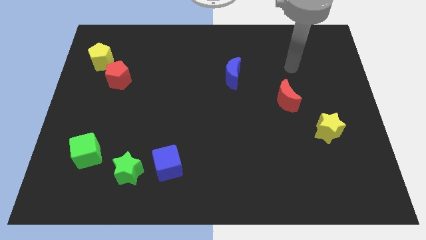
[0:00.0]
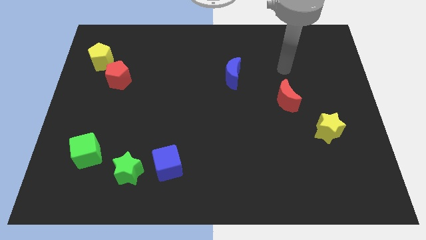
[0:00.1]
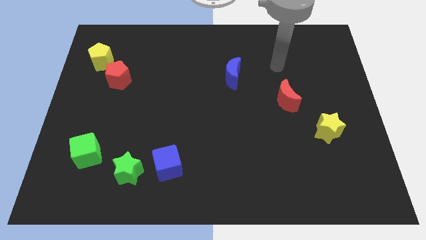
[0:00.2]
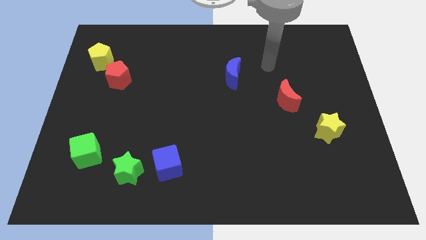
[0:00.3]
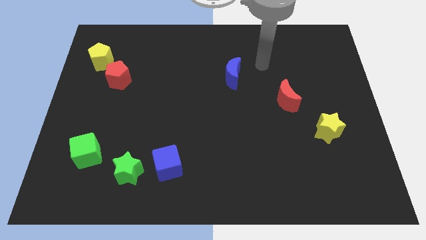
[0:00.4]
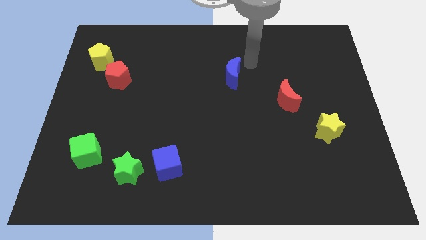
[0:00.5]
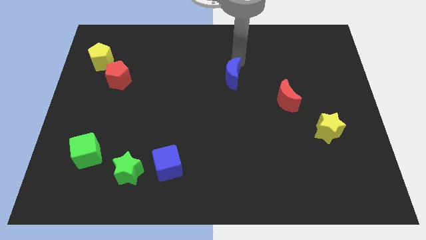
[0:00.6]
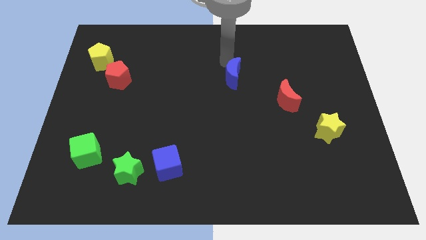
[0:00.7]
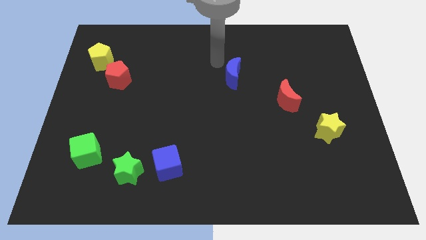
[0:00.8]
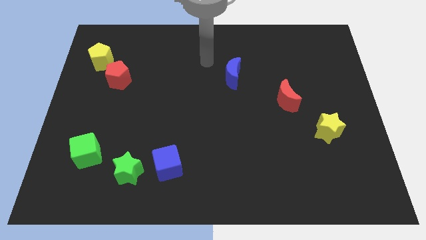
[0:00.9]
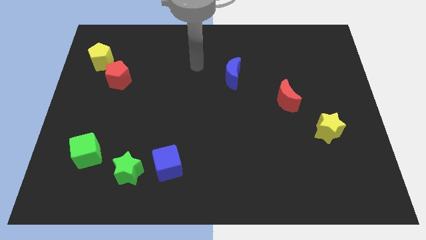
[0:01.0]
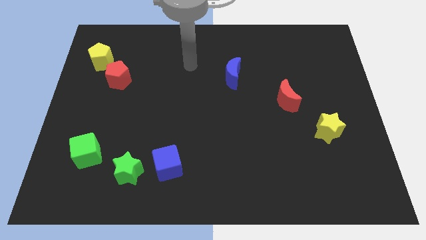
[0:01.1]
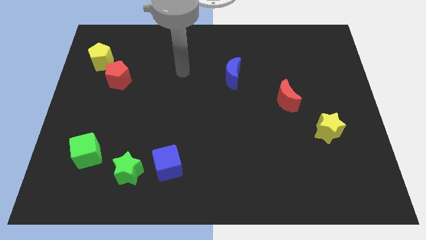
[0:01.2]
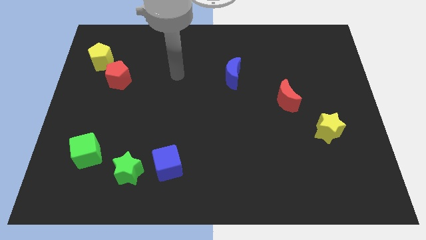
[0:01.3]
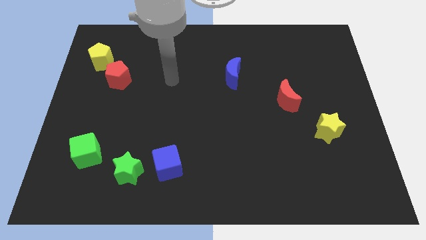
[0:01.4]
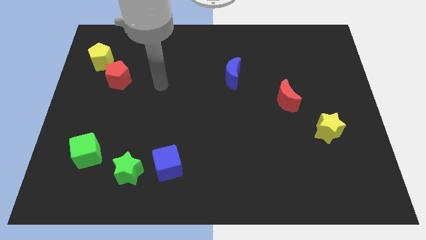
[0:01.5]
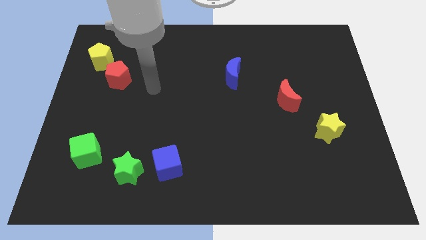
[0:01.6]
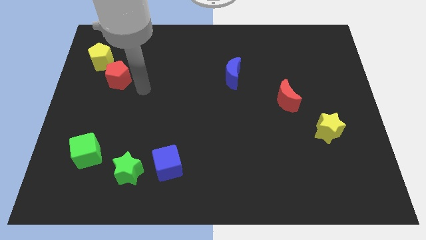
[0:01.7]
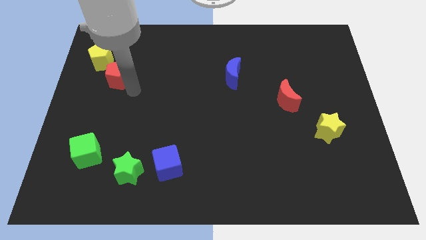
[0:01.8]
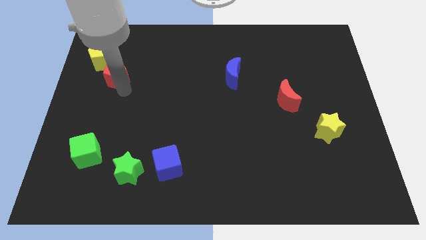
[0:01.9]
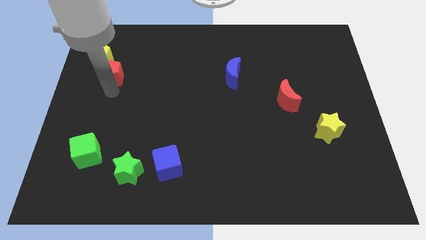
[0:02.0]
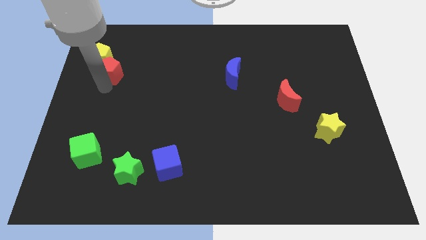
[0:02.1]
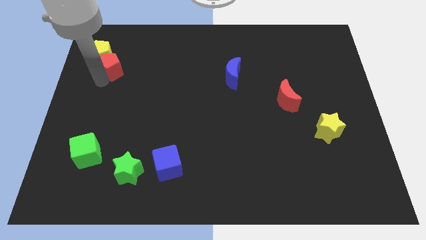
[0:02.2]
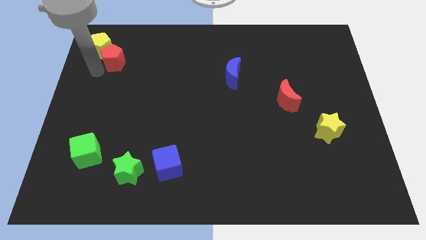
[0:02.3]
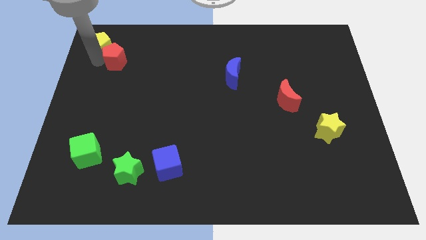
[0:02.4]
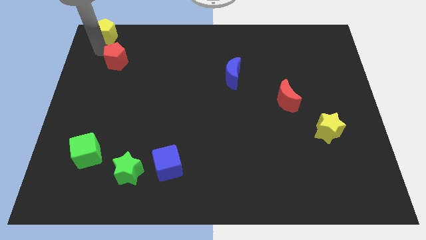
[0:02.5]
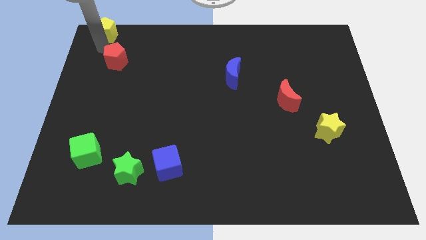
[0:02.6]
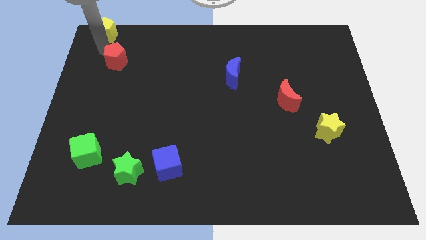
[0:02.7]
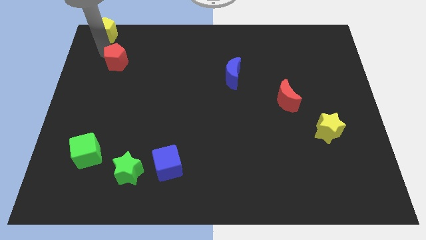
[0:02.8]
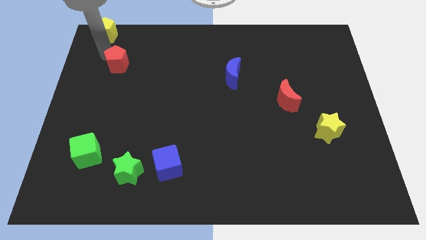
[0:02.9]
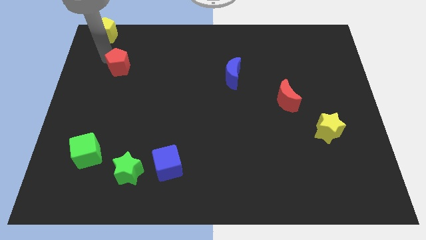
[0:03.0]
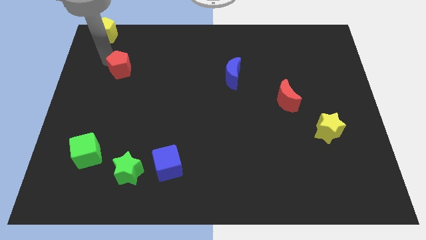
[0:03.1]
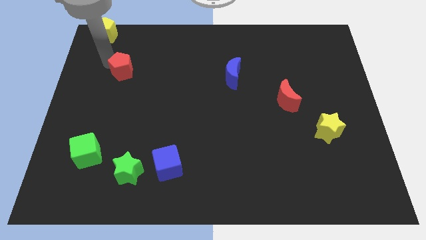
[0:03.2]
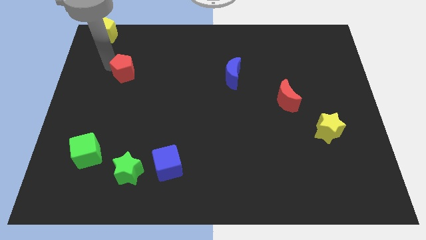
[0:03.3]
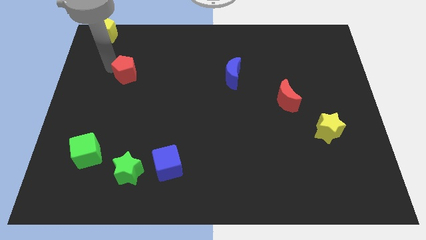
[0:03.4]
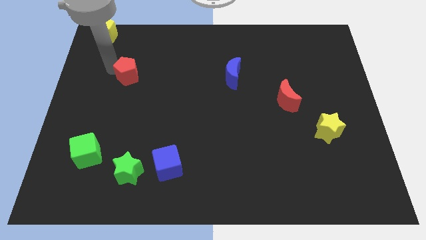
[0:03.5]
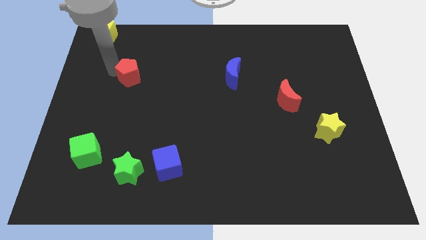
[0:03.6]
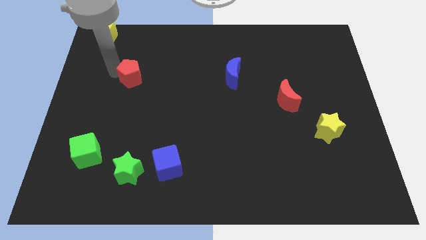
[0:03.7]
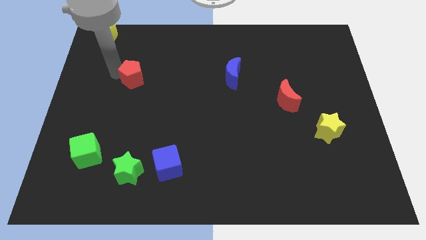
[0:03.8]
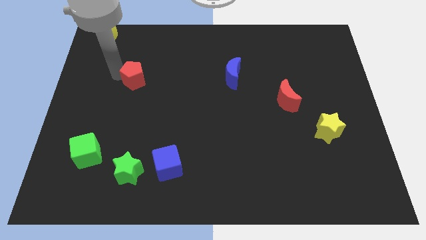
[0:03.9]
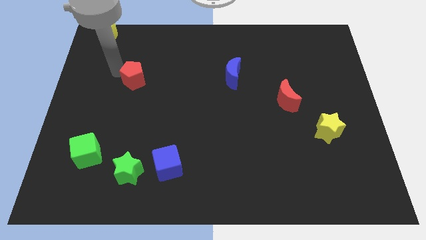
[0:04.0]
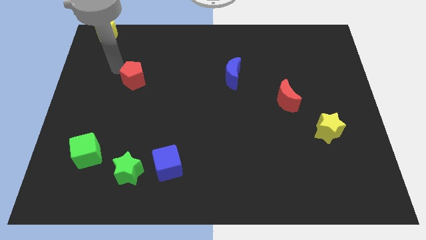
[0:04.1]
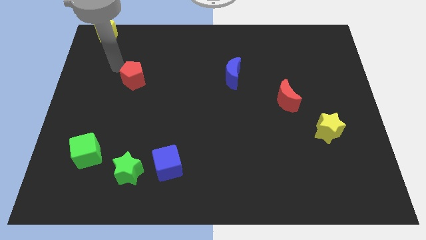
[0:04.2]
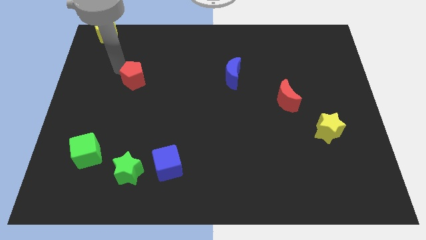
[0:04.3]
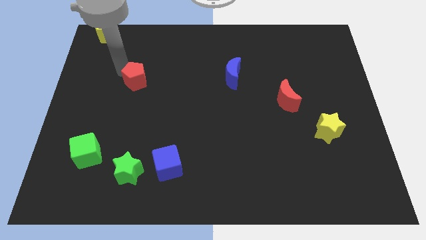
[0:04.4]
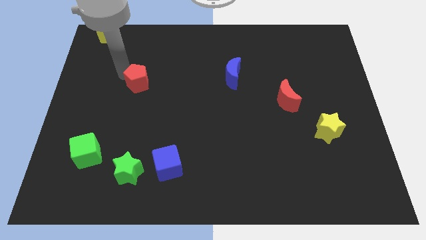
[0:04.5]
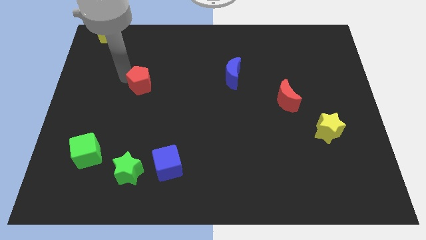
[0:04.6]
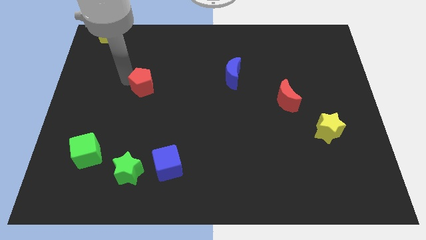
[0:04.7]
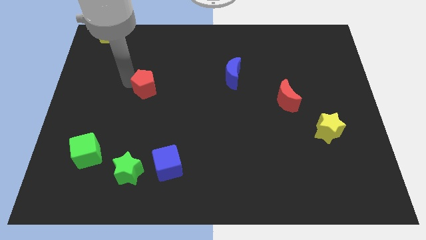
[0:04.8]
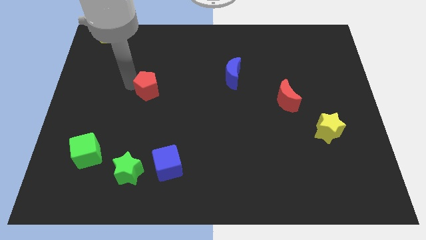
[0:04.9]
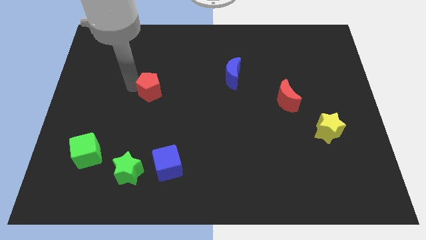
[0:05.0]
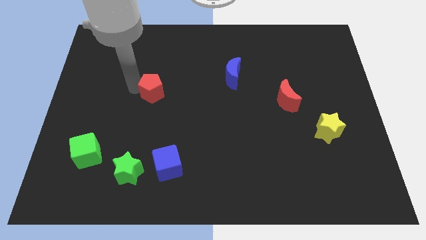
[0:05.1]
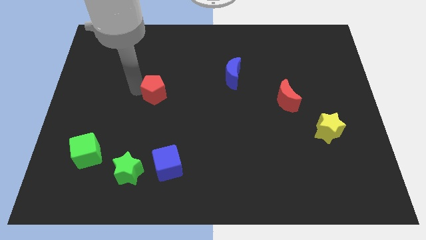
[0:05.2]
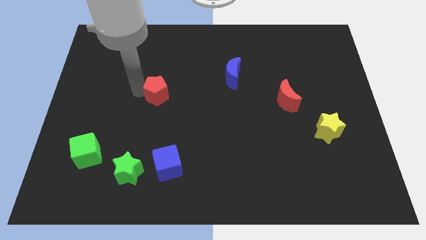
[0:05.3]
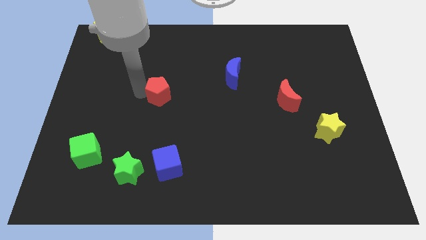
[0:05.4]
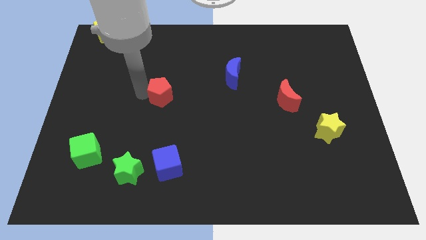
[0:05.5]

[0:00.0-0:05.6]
move the red pentagon to the center of the board

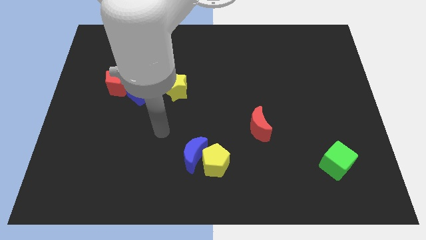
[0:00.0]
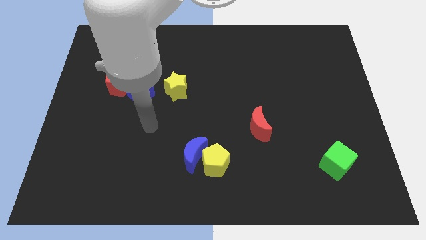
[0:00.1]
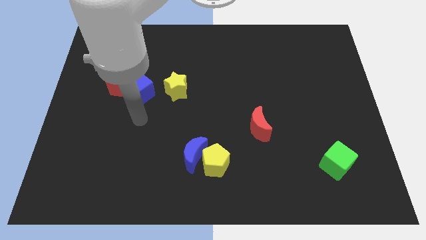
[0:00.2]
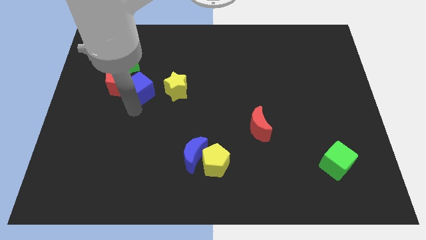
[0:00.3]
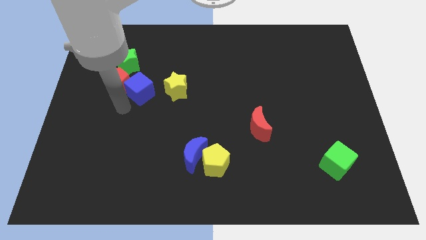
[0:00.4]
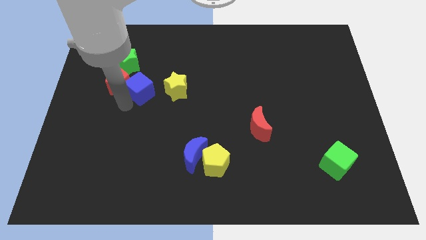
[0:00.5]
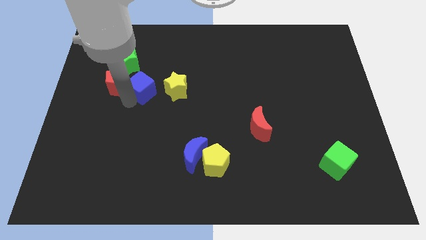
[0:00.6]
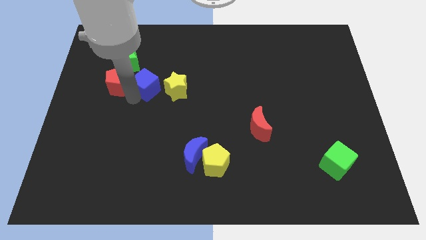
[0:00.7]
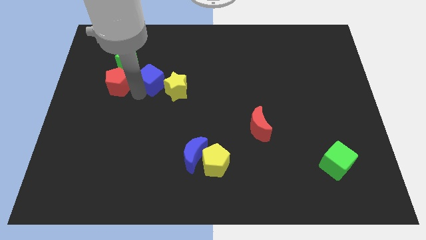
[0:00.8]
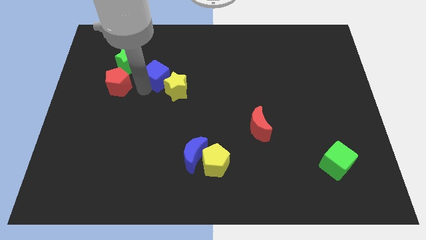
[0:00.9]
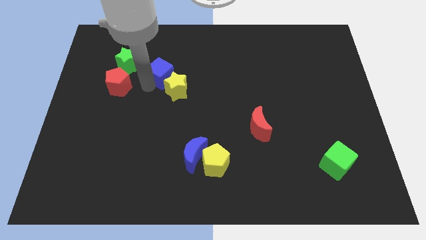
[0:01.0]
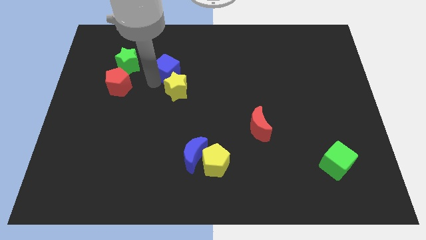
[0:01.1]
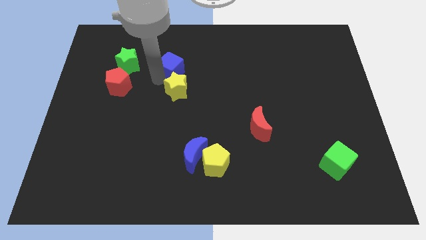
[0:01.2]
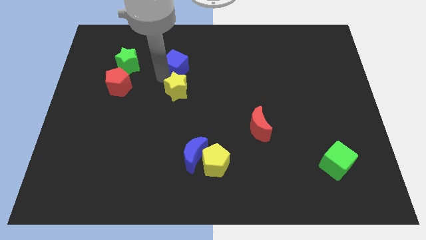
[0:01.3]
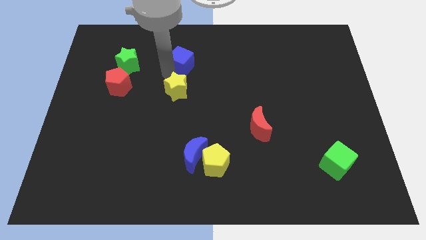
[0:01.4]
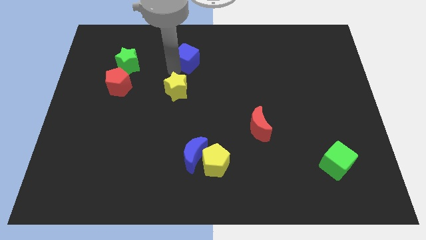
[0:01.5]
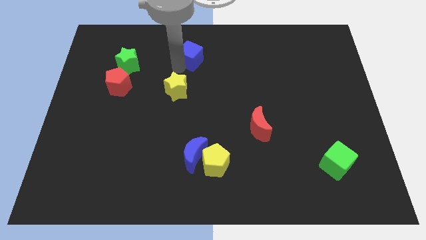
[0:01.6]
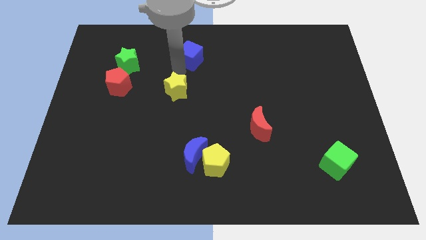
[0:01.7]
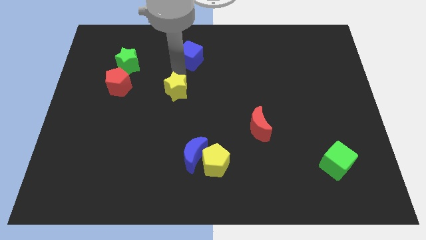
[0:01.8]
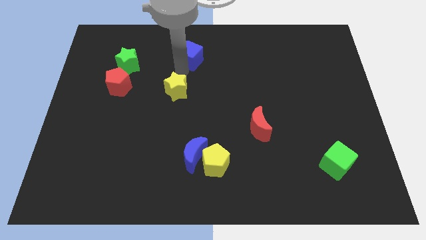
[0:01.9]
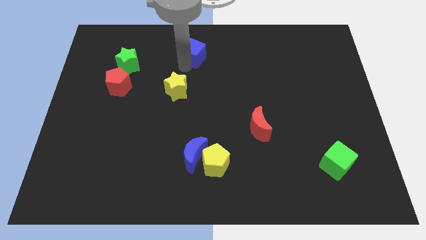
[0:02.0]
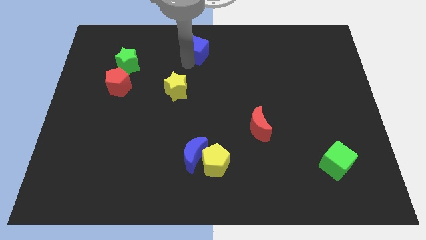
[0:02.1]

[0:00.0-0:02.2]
slide the blue cube to the top
